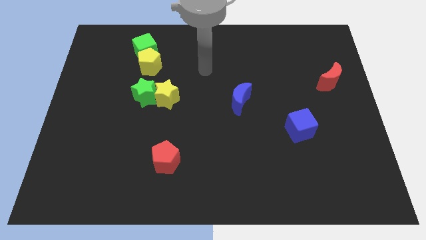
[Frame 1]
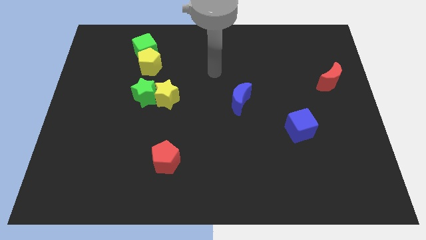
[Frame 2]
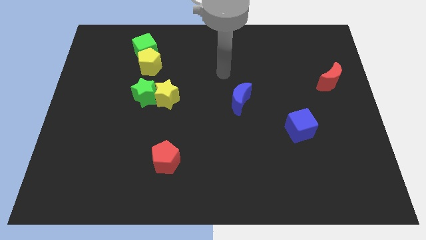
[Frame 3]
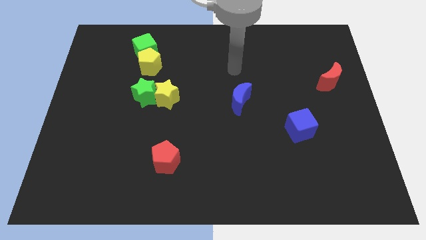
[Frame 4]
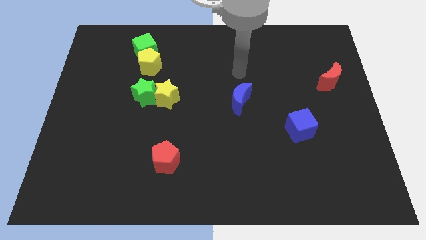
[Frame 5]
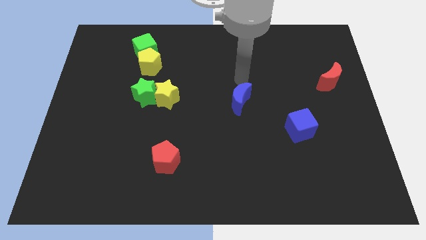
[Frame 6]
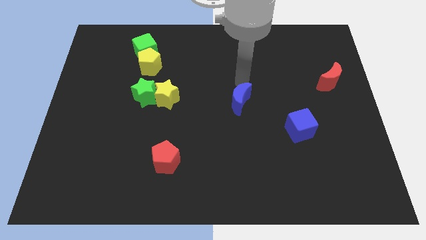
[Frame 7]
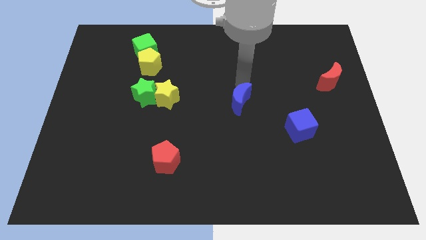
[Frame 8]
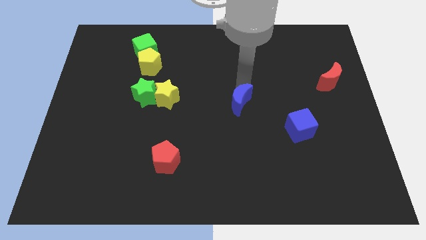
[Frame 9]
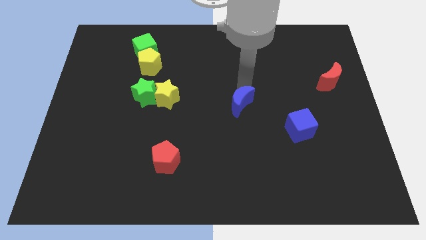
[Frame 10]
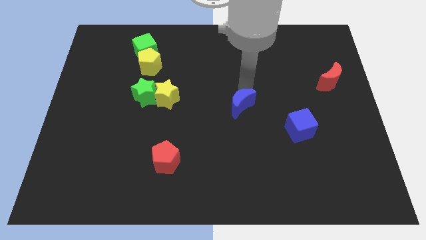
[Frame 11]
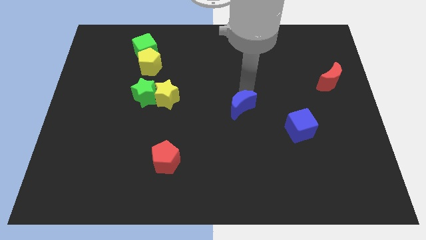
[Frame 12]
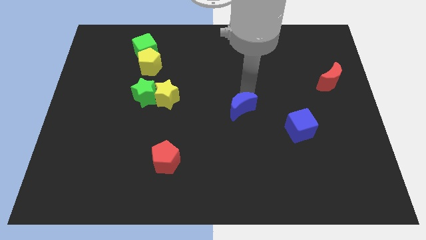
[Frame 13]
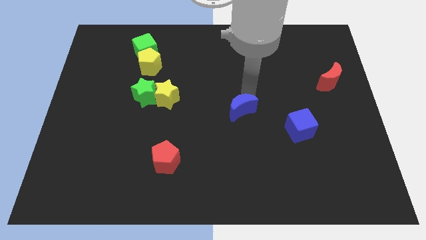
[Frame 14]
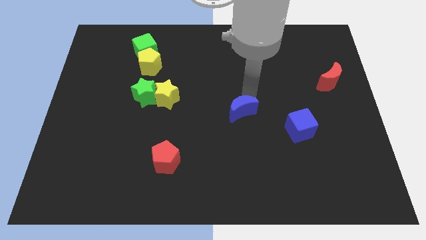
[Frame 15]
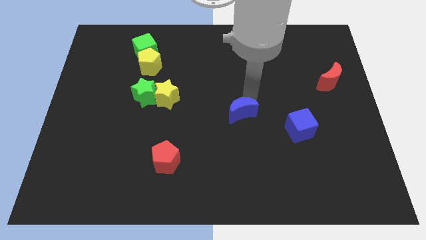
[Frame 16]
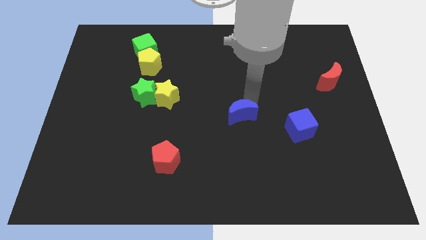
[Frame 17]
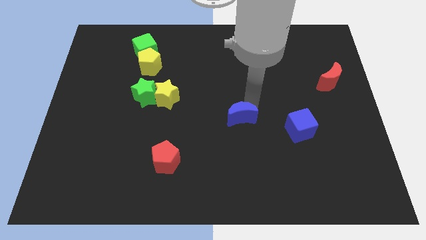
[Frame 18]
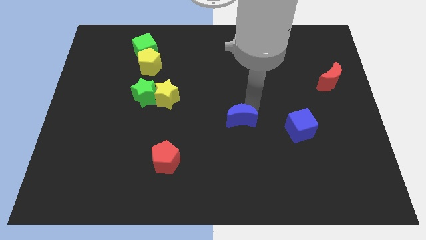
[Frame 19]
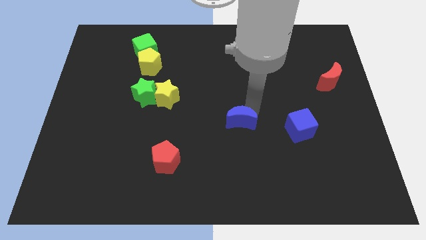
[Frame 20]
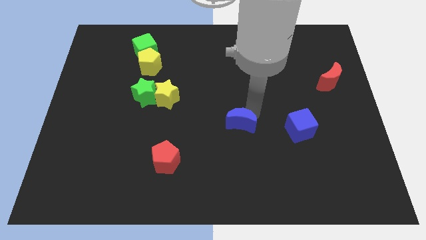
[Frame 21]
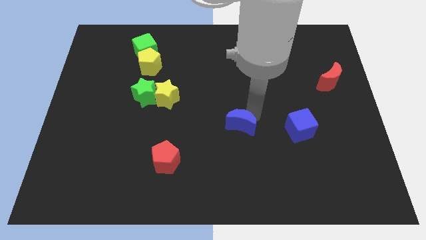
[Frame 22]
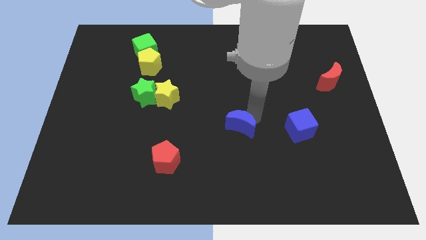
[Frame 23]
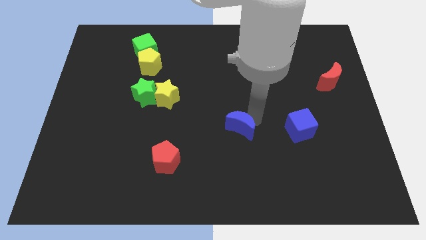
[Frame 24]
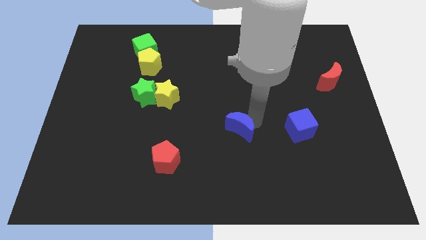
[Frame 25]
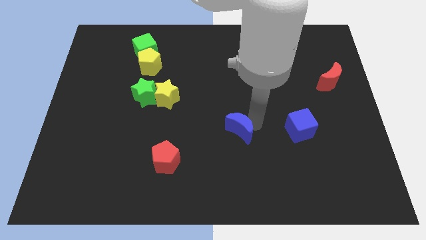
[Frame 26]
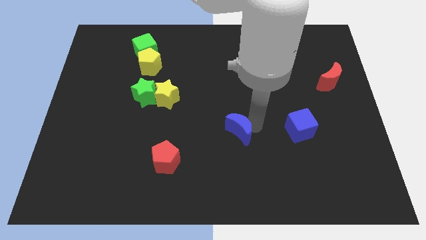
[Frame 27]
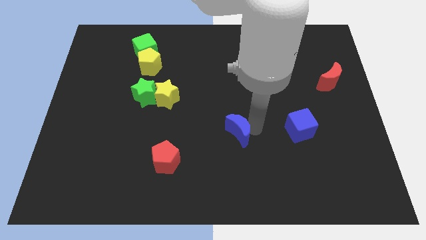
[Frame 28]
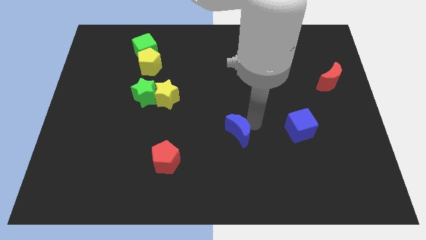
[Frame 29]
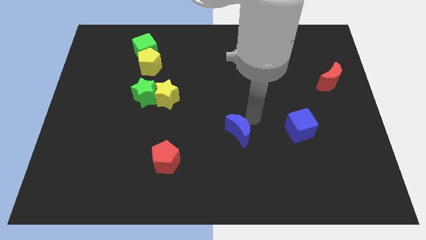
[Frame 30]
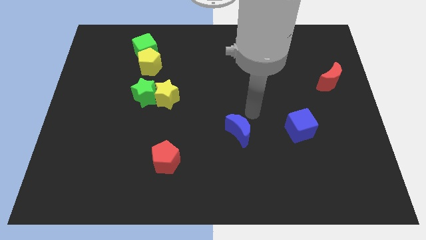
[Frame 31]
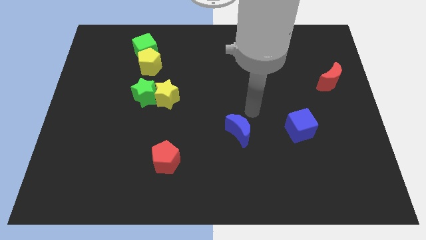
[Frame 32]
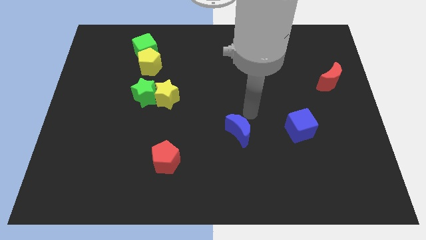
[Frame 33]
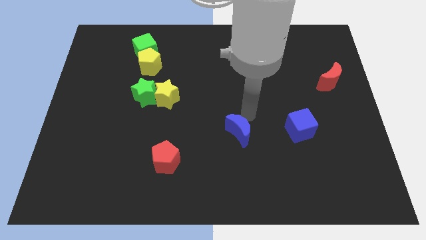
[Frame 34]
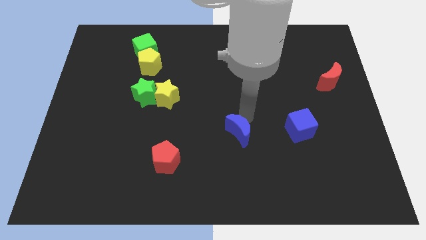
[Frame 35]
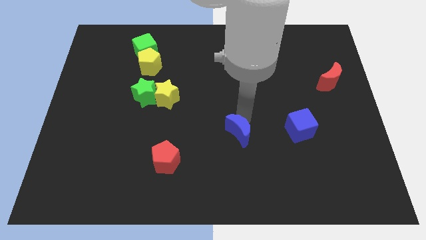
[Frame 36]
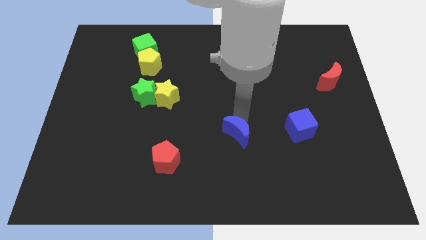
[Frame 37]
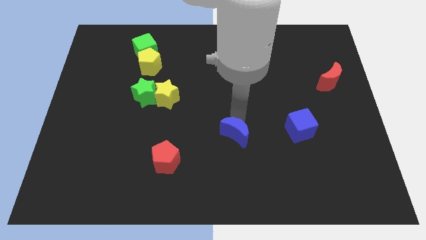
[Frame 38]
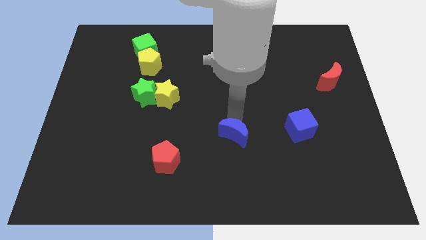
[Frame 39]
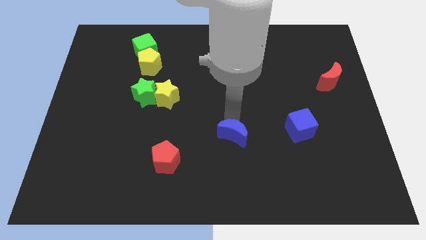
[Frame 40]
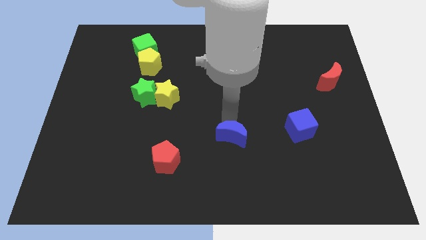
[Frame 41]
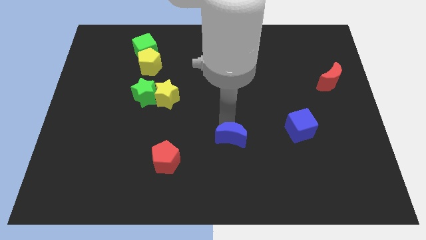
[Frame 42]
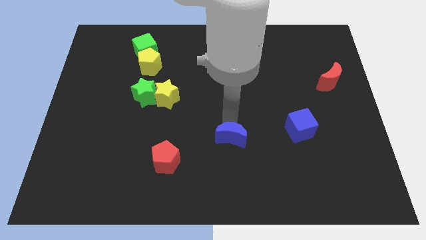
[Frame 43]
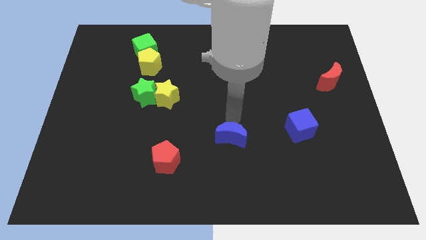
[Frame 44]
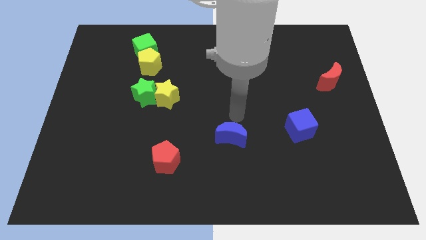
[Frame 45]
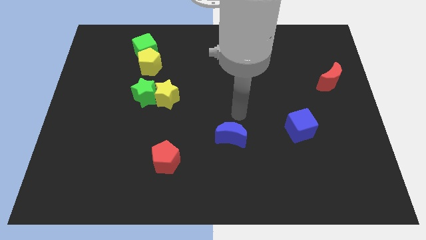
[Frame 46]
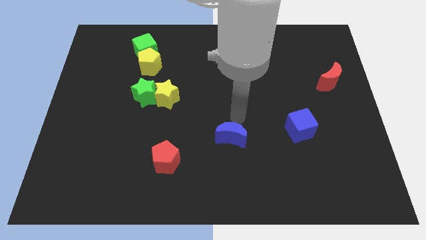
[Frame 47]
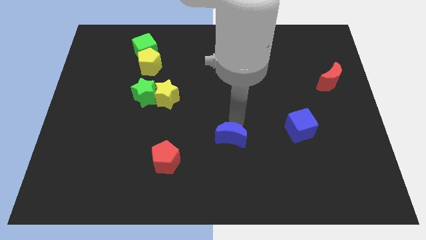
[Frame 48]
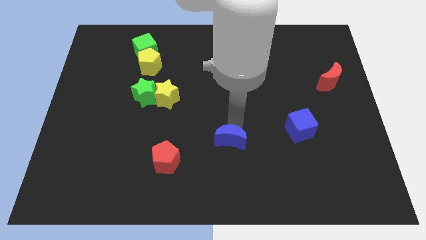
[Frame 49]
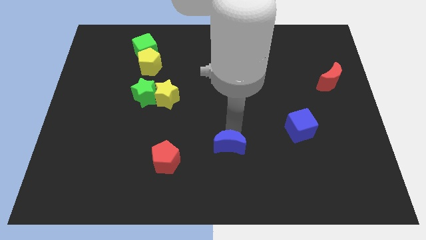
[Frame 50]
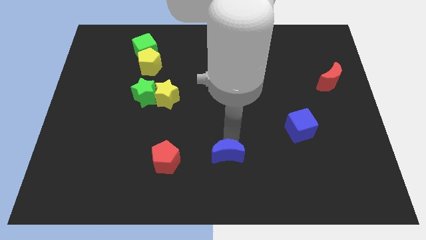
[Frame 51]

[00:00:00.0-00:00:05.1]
put the blue moon to the bottom

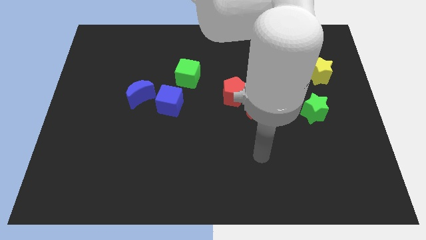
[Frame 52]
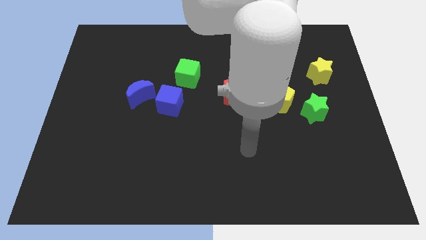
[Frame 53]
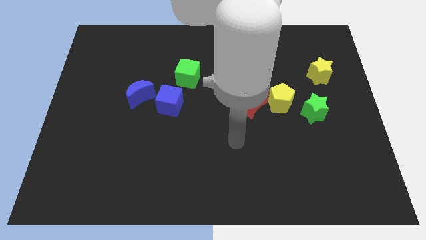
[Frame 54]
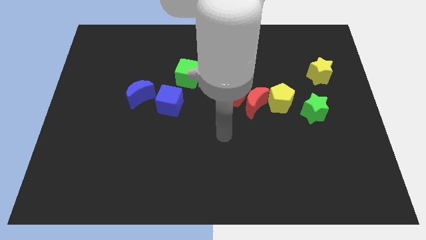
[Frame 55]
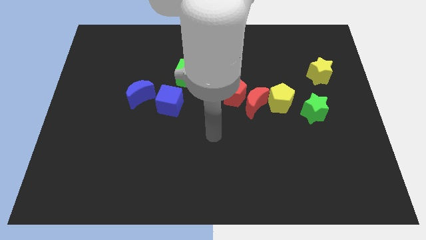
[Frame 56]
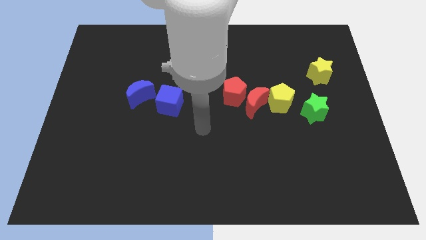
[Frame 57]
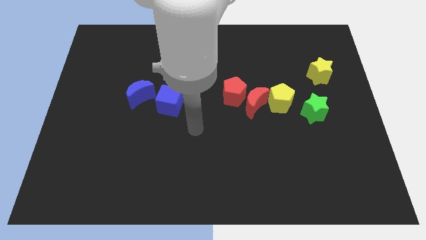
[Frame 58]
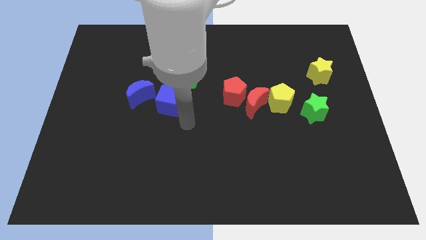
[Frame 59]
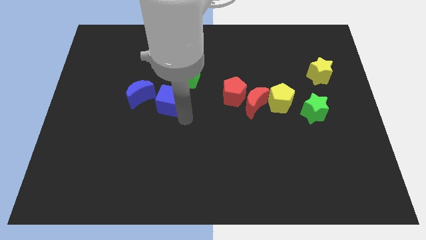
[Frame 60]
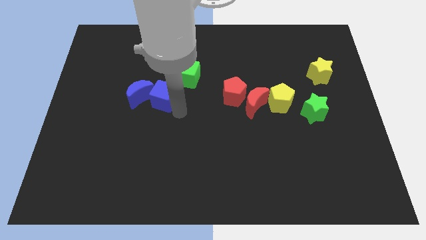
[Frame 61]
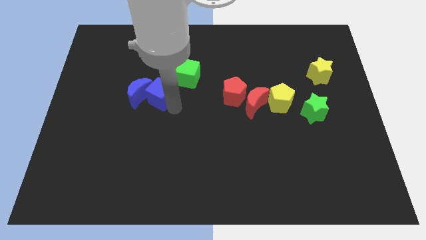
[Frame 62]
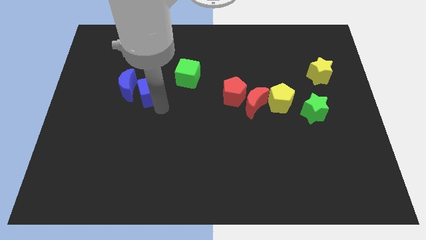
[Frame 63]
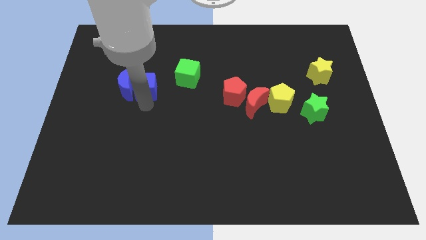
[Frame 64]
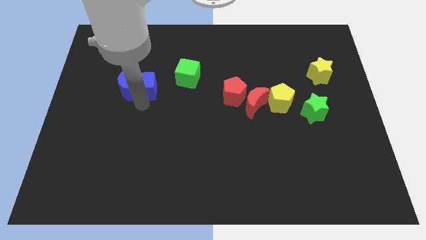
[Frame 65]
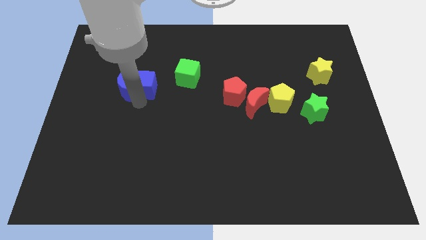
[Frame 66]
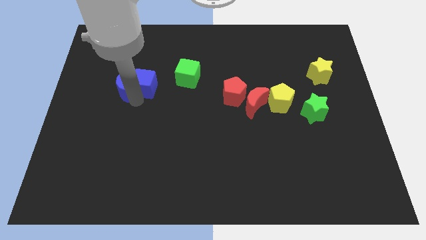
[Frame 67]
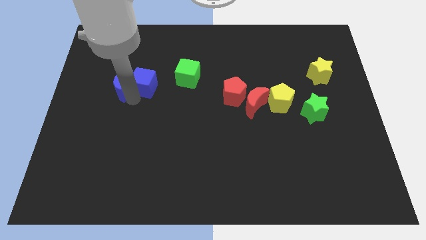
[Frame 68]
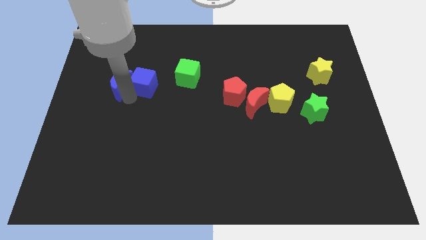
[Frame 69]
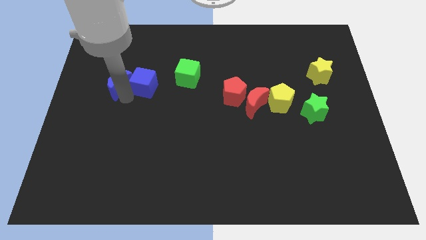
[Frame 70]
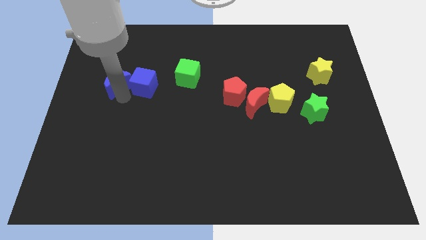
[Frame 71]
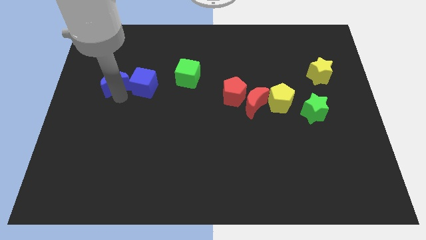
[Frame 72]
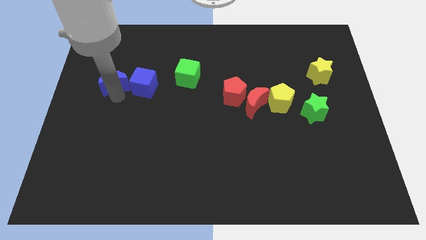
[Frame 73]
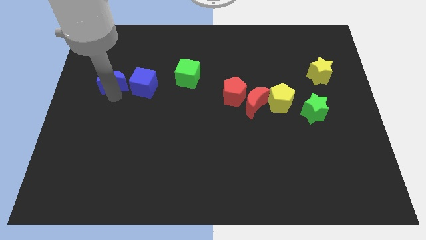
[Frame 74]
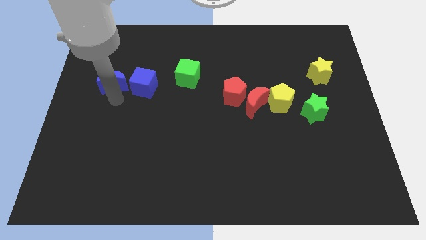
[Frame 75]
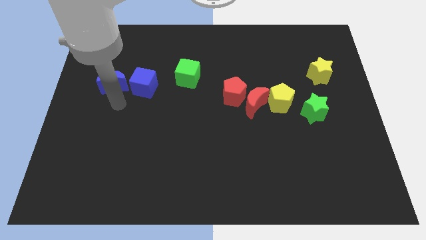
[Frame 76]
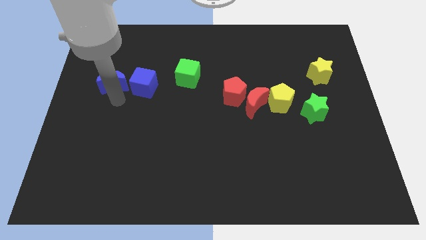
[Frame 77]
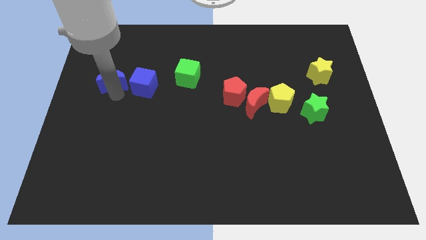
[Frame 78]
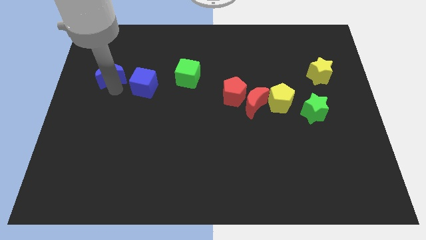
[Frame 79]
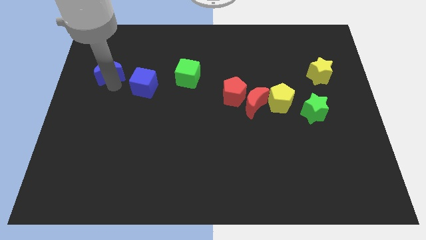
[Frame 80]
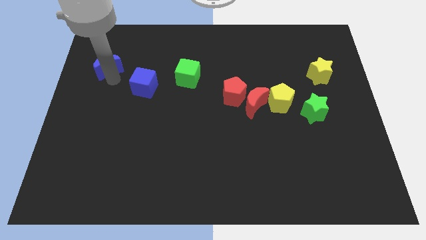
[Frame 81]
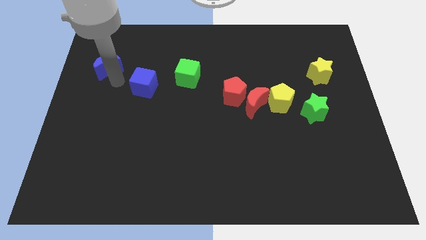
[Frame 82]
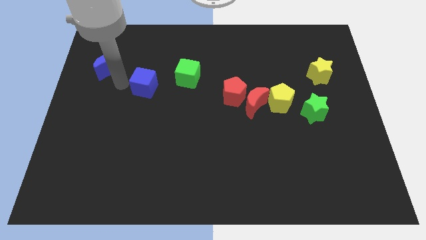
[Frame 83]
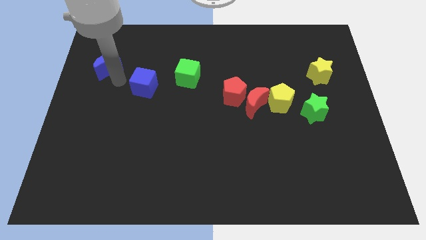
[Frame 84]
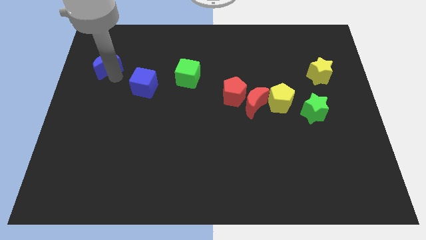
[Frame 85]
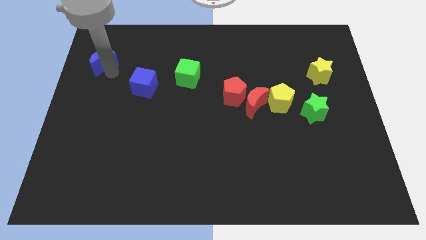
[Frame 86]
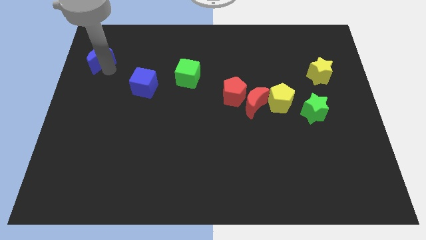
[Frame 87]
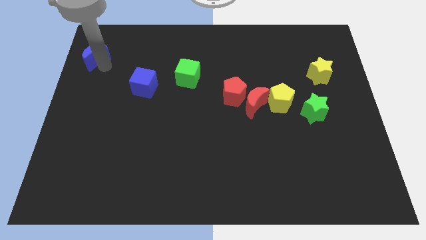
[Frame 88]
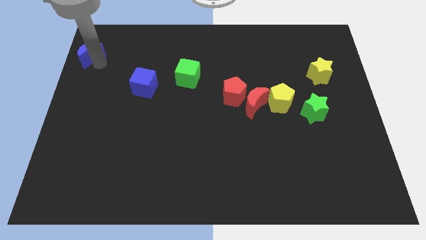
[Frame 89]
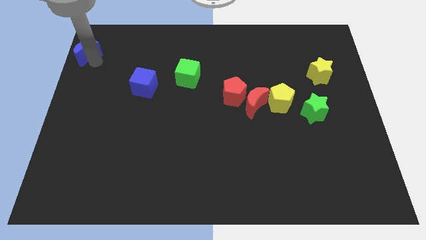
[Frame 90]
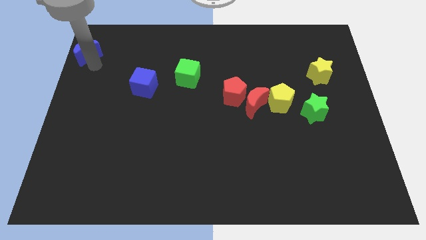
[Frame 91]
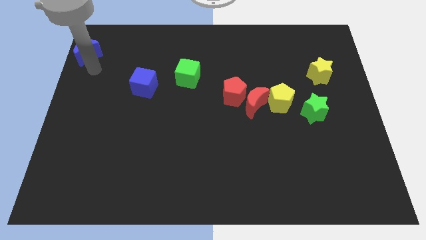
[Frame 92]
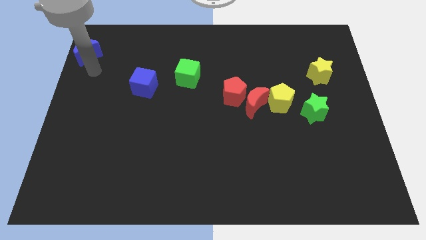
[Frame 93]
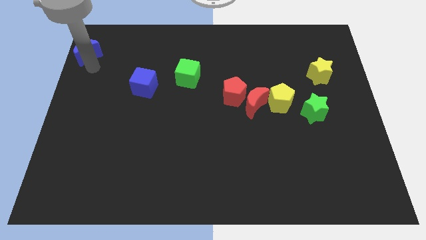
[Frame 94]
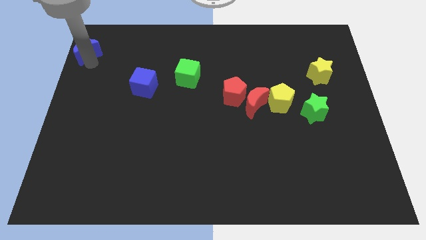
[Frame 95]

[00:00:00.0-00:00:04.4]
slide the blue moon to the top left corner
